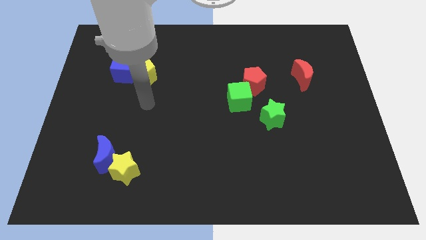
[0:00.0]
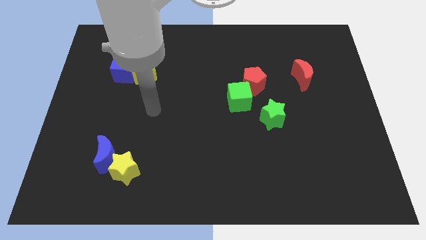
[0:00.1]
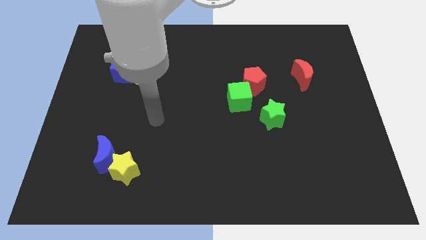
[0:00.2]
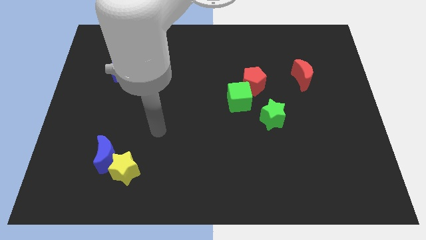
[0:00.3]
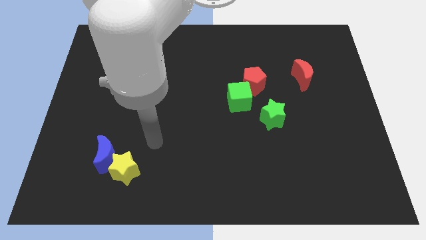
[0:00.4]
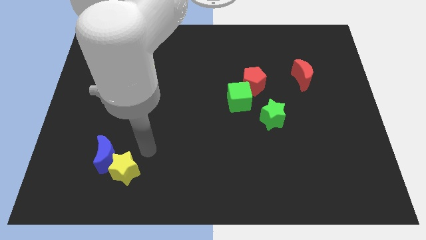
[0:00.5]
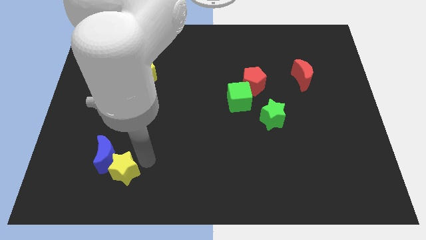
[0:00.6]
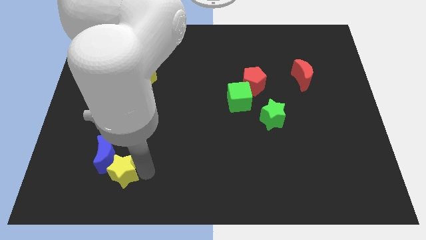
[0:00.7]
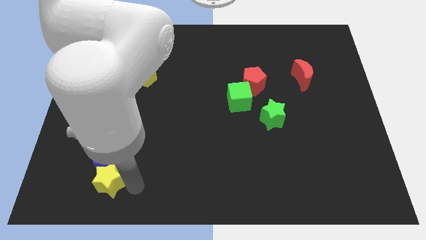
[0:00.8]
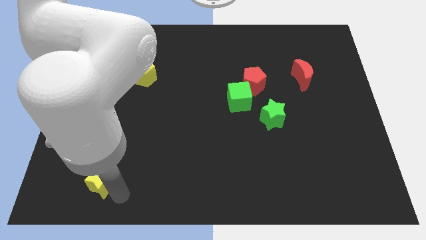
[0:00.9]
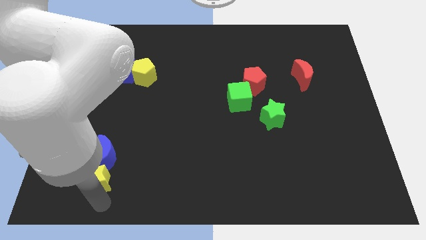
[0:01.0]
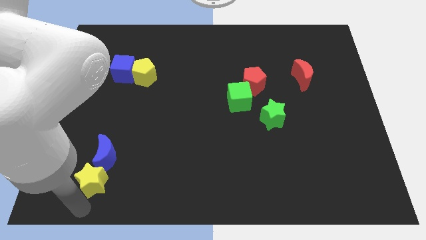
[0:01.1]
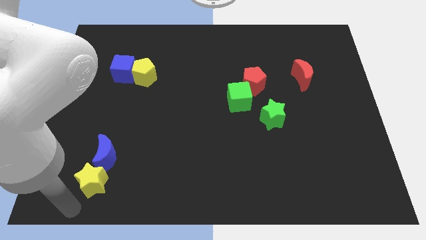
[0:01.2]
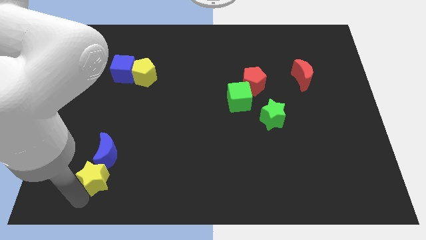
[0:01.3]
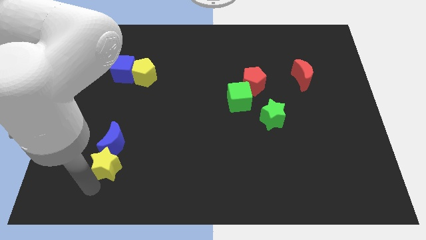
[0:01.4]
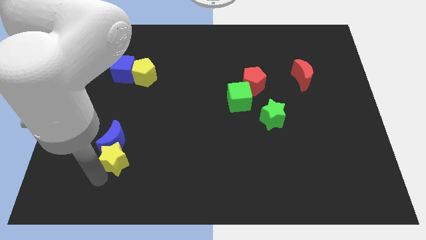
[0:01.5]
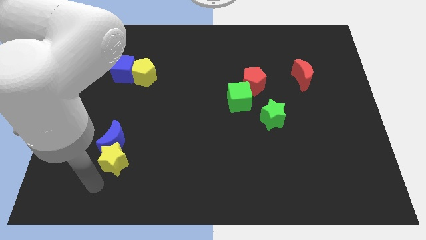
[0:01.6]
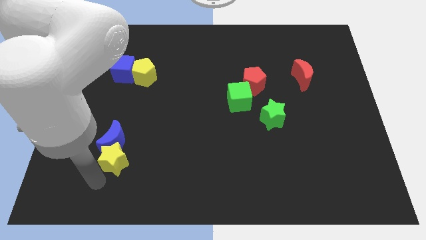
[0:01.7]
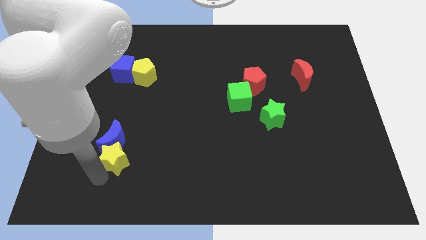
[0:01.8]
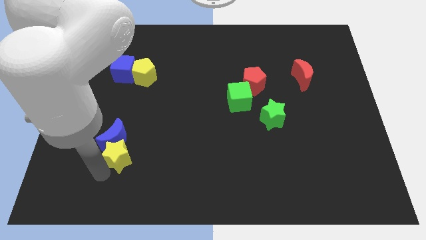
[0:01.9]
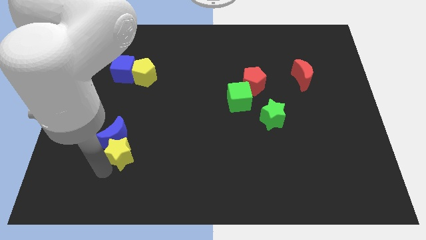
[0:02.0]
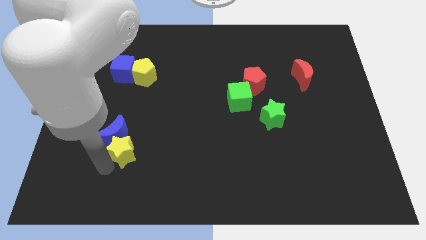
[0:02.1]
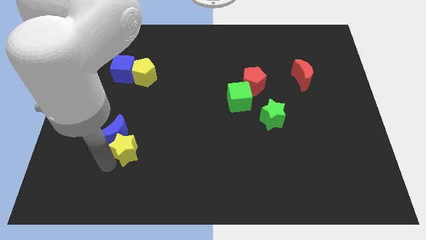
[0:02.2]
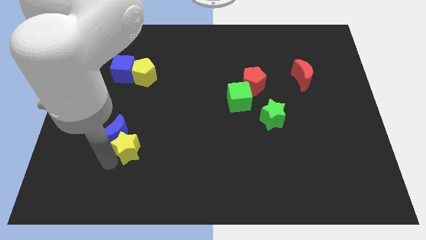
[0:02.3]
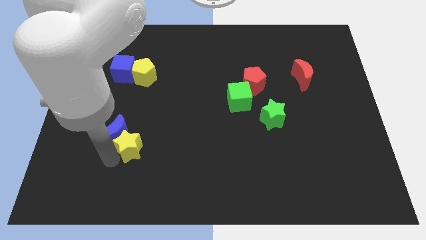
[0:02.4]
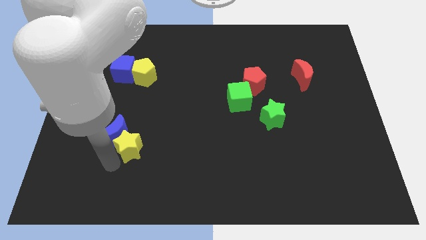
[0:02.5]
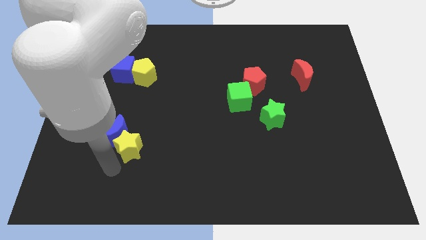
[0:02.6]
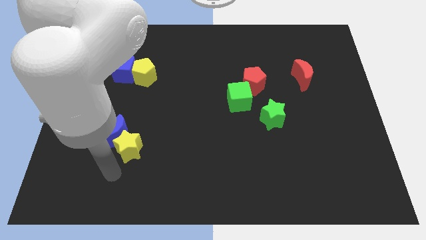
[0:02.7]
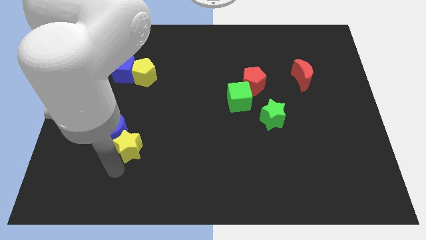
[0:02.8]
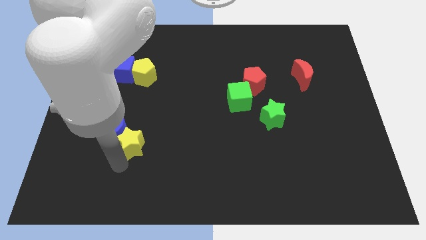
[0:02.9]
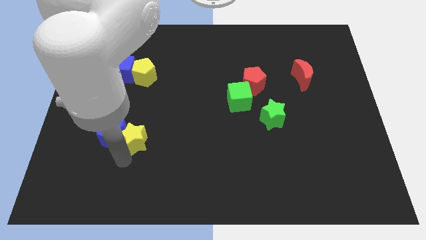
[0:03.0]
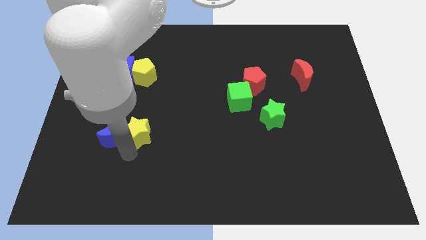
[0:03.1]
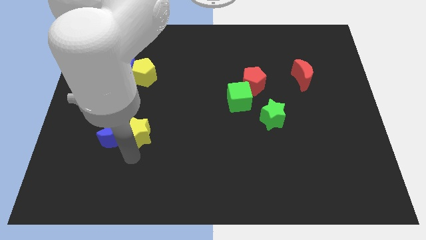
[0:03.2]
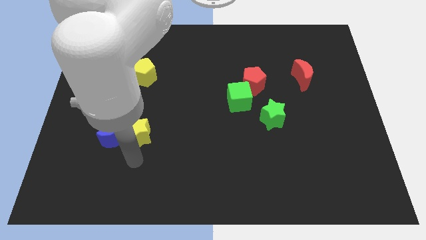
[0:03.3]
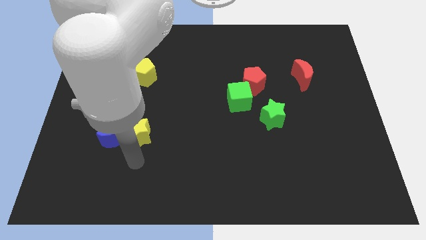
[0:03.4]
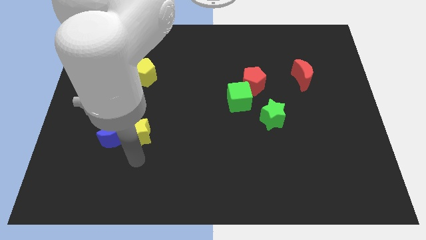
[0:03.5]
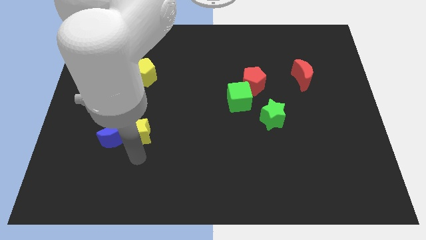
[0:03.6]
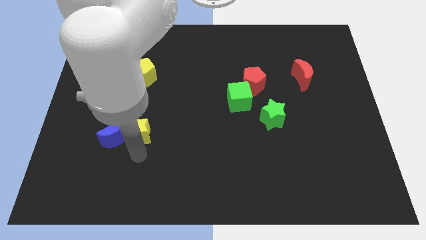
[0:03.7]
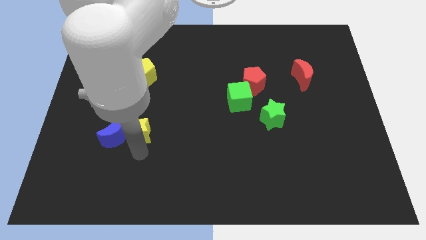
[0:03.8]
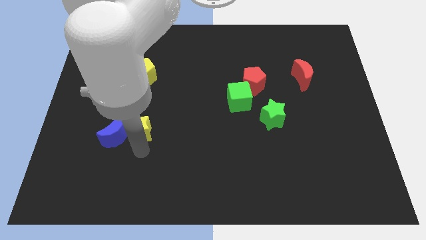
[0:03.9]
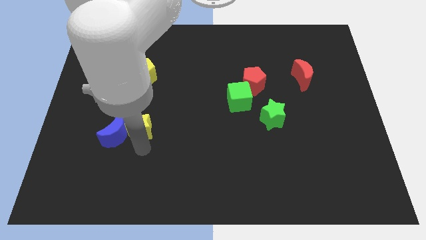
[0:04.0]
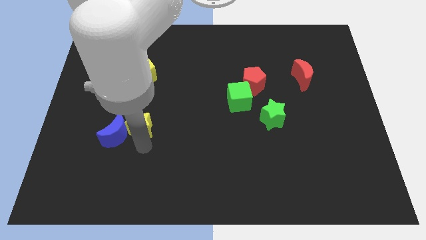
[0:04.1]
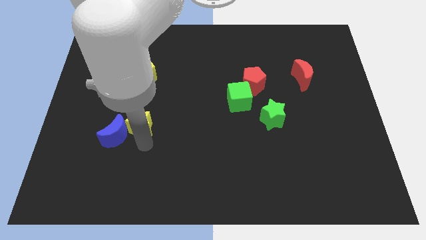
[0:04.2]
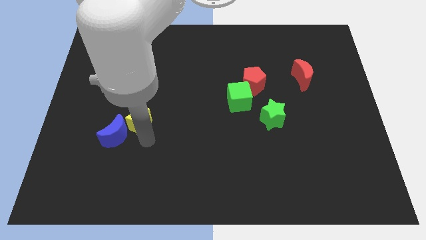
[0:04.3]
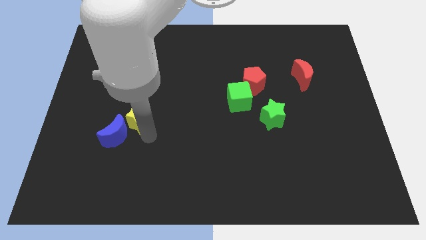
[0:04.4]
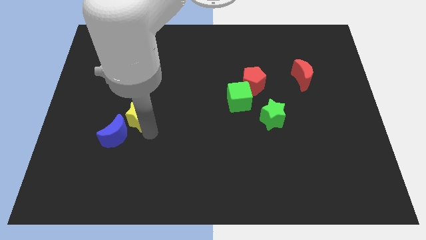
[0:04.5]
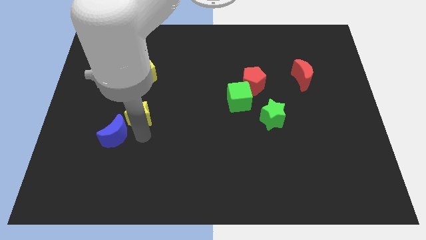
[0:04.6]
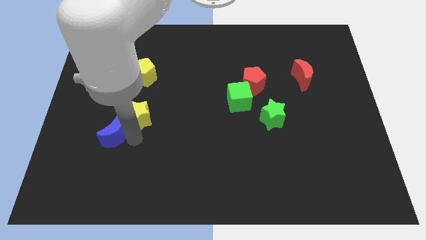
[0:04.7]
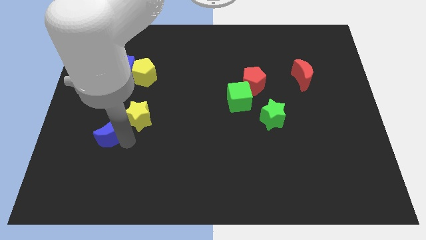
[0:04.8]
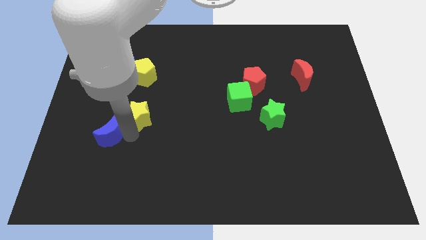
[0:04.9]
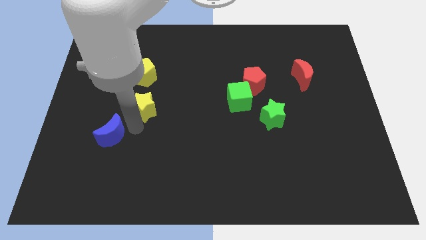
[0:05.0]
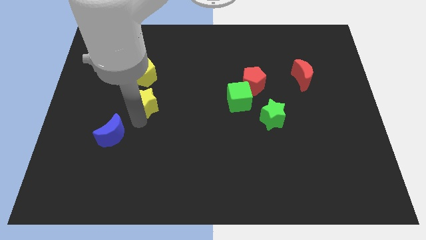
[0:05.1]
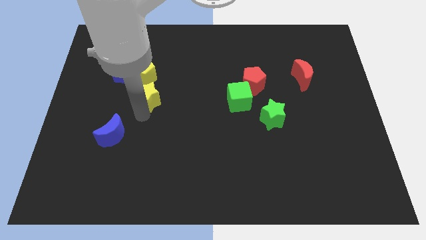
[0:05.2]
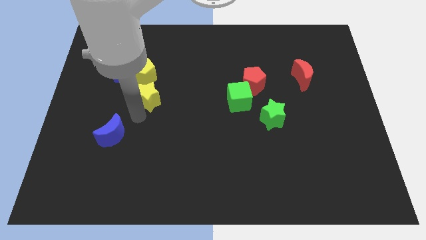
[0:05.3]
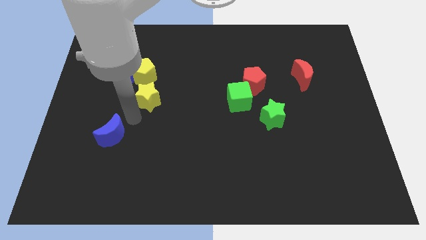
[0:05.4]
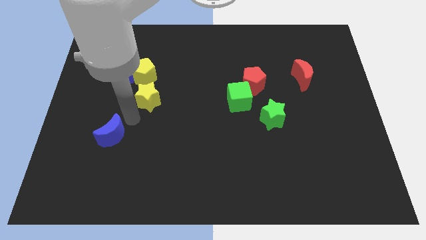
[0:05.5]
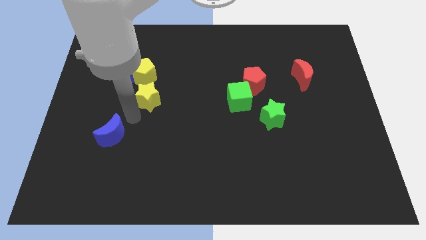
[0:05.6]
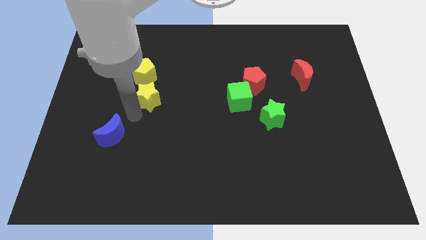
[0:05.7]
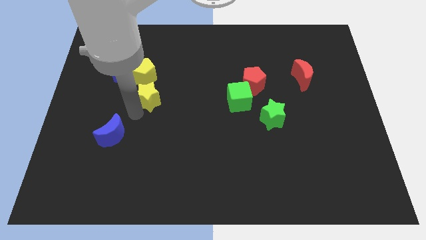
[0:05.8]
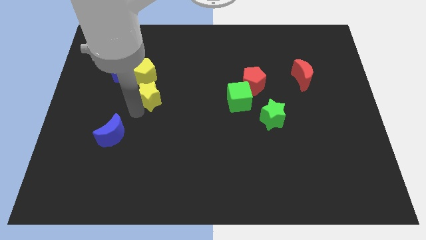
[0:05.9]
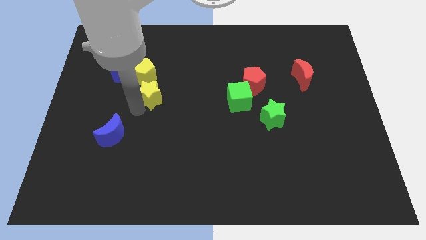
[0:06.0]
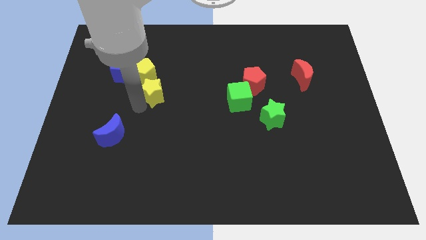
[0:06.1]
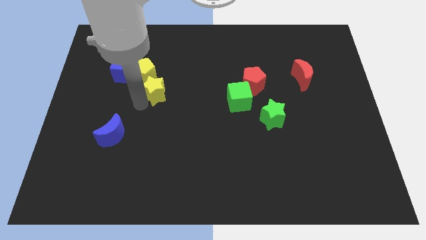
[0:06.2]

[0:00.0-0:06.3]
push the yellow star upwards

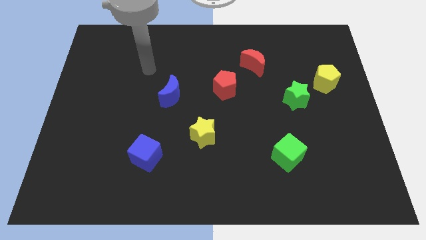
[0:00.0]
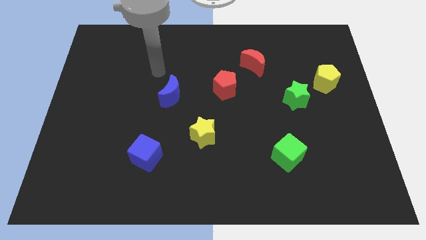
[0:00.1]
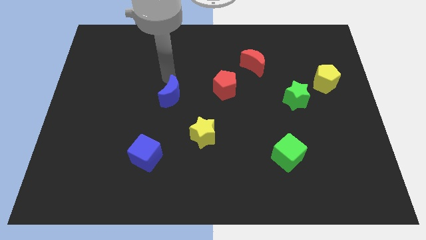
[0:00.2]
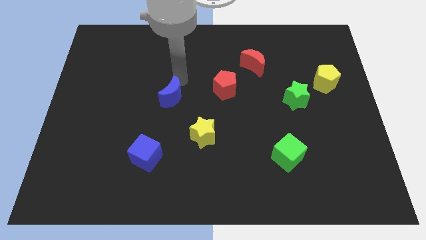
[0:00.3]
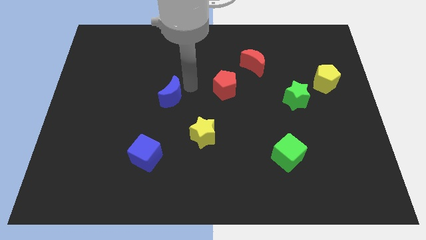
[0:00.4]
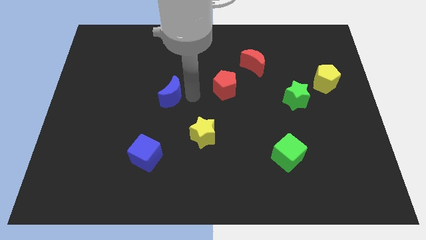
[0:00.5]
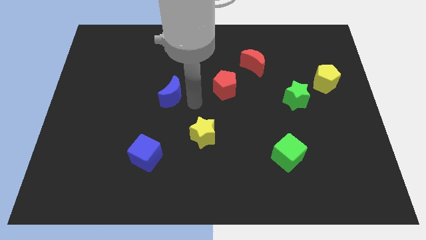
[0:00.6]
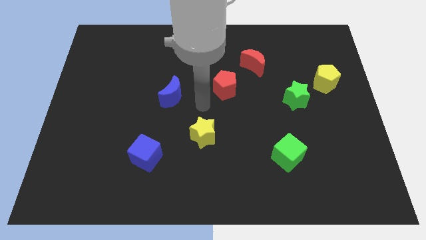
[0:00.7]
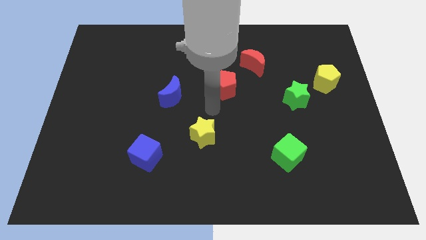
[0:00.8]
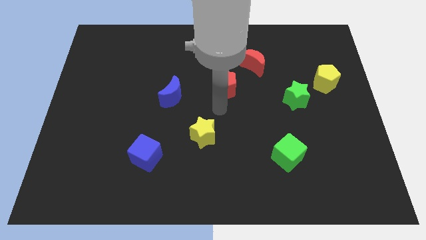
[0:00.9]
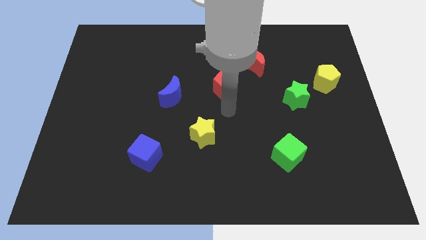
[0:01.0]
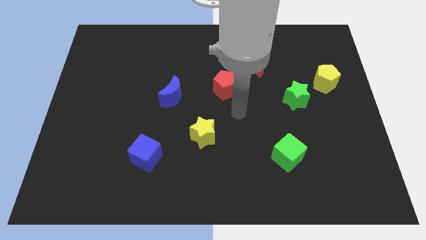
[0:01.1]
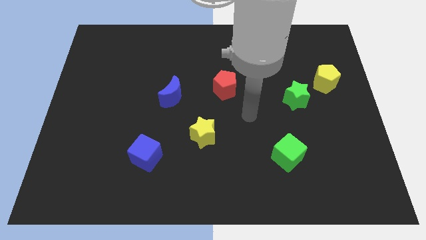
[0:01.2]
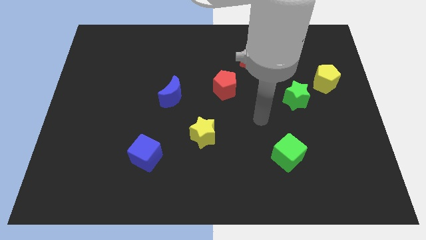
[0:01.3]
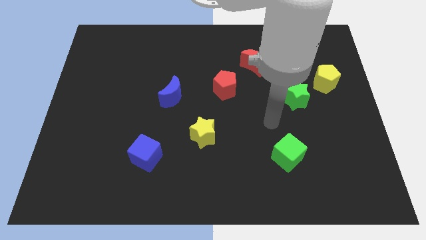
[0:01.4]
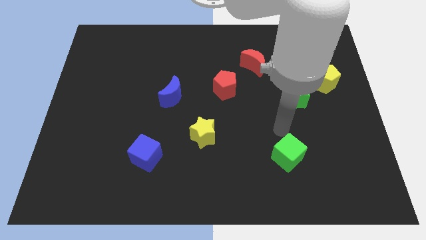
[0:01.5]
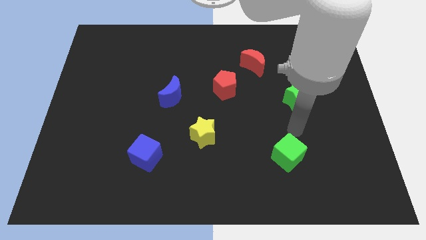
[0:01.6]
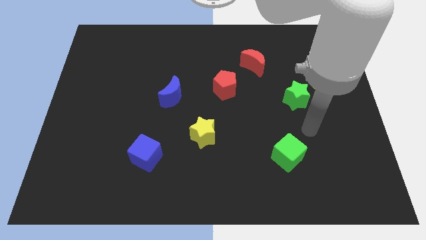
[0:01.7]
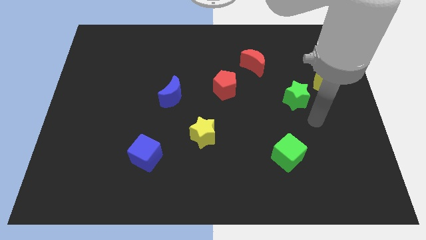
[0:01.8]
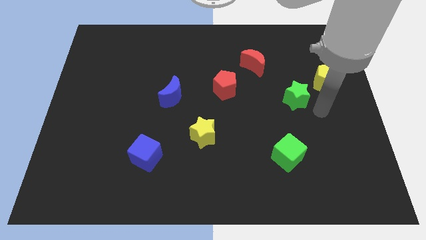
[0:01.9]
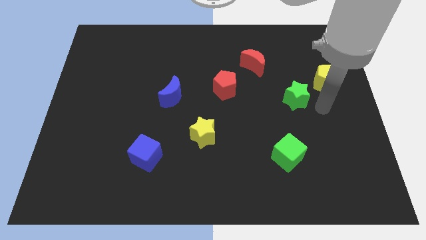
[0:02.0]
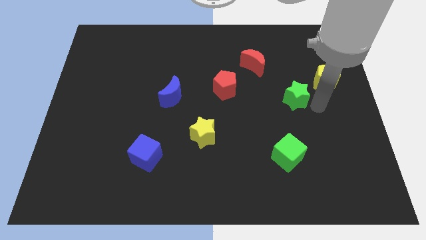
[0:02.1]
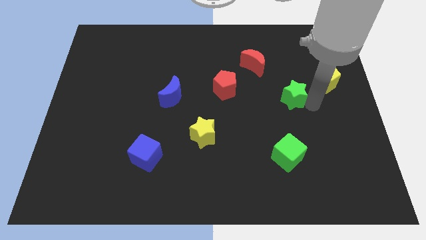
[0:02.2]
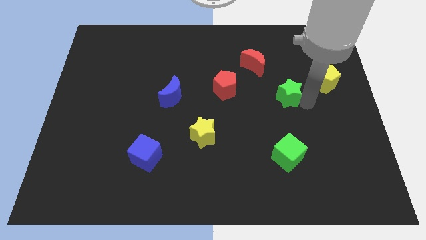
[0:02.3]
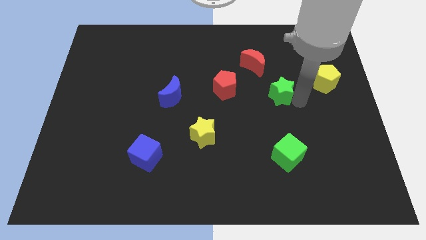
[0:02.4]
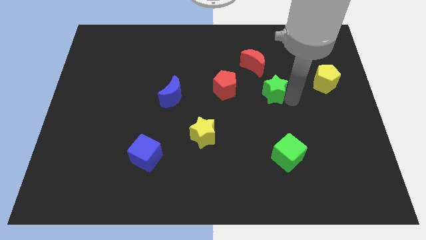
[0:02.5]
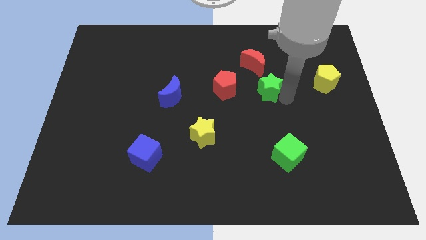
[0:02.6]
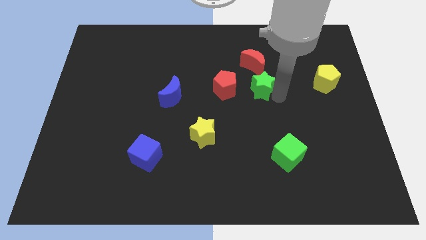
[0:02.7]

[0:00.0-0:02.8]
push the green star slightly diagonally up and left
